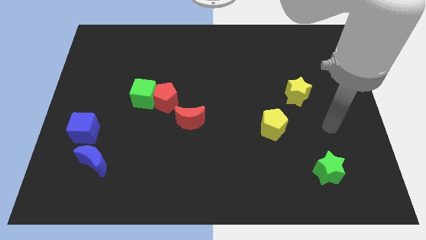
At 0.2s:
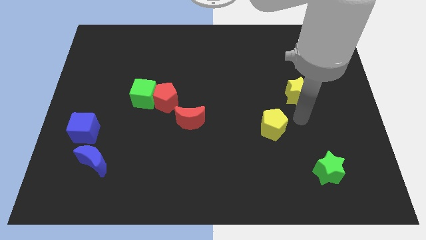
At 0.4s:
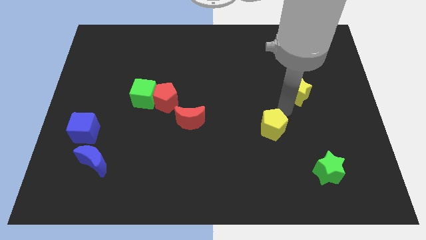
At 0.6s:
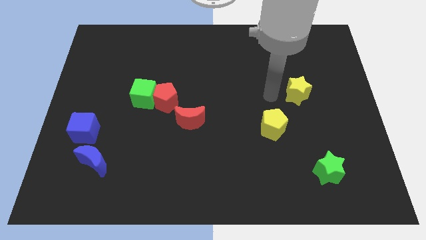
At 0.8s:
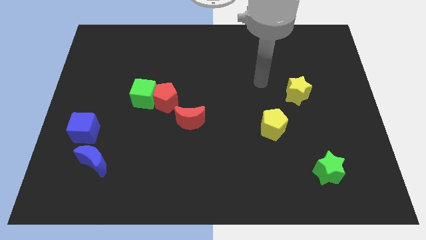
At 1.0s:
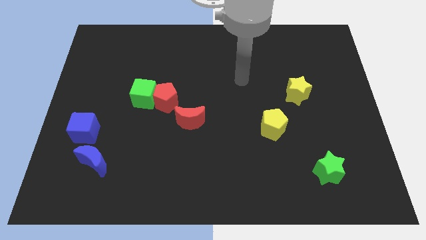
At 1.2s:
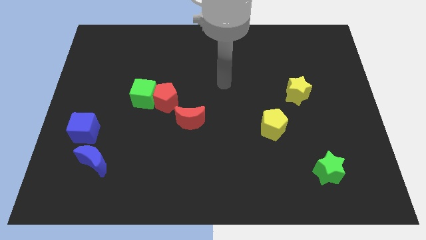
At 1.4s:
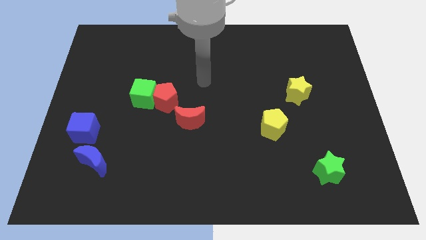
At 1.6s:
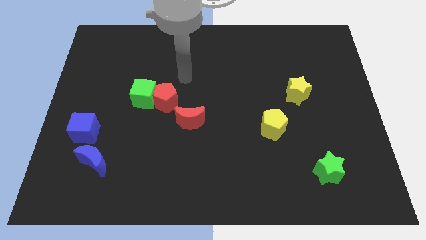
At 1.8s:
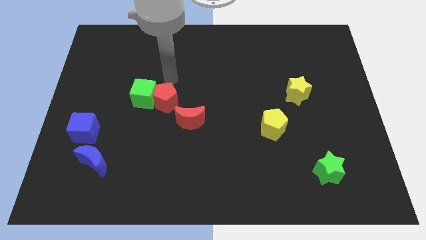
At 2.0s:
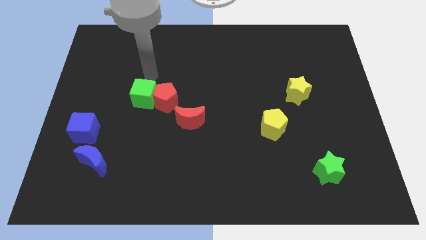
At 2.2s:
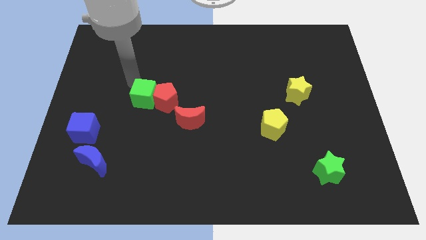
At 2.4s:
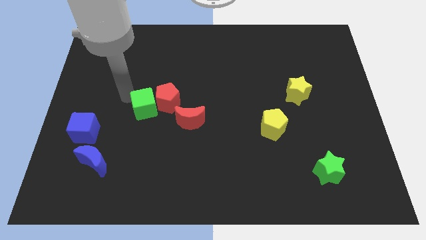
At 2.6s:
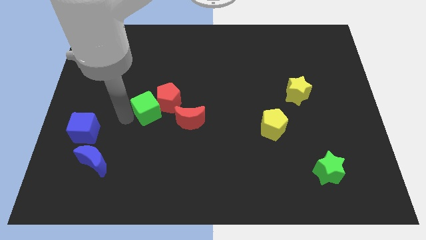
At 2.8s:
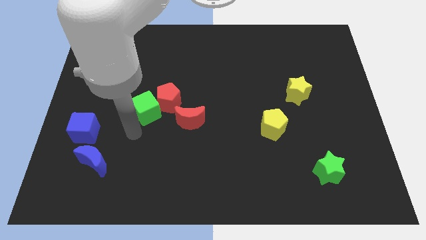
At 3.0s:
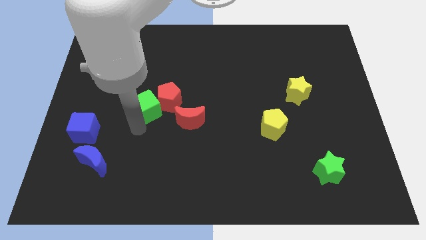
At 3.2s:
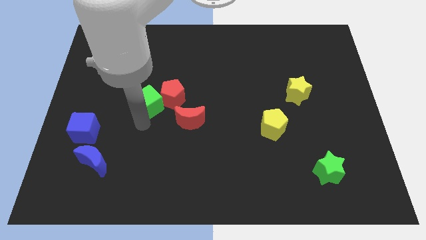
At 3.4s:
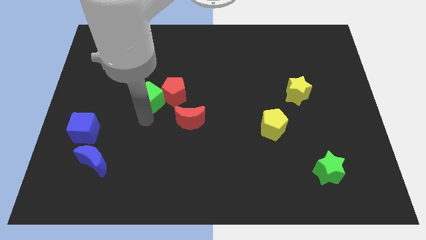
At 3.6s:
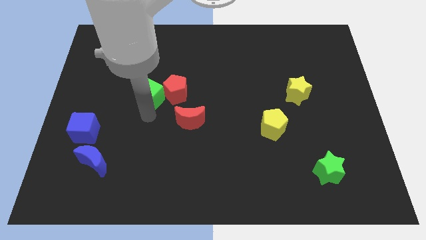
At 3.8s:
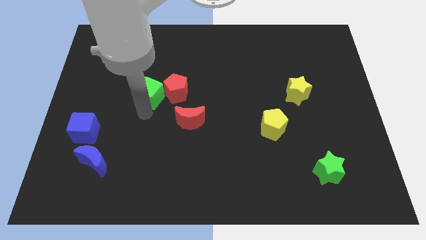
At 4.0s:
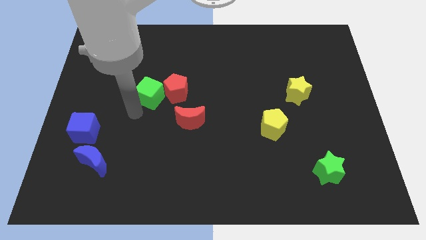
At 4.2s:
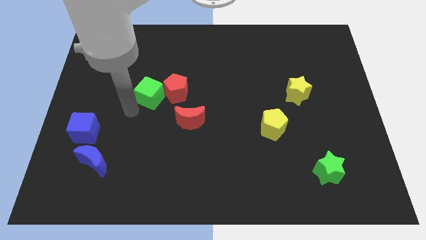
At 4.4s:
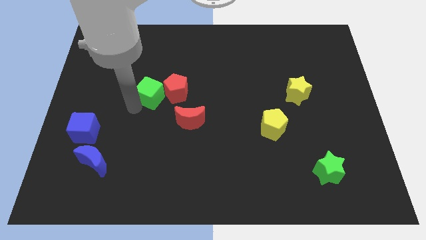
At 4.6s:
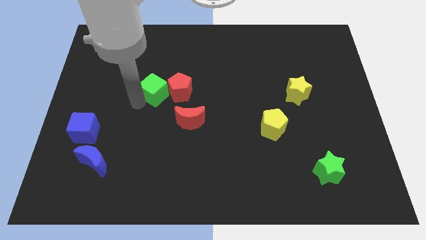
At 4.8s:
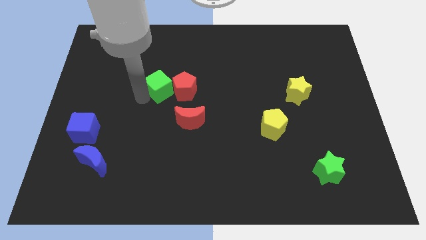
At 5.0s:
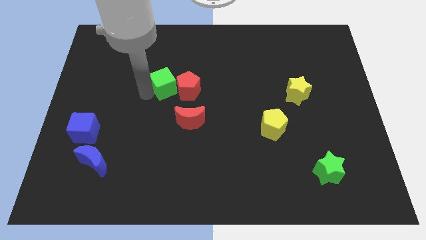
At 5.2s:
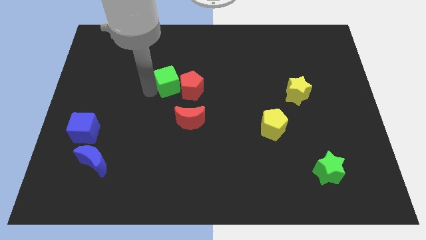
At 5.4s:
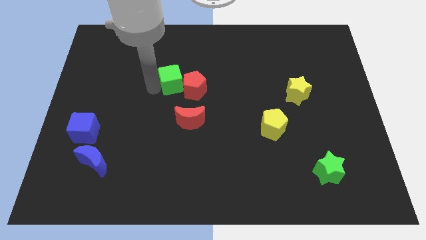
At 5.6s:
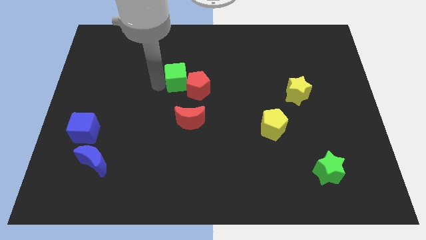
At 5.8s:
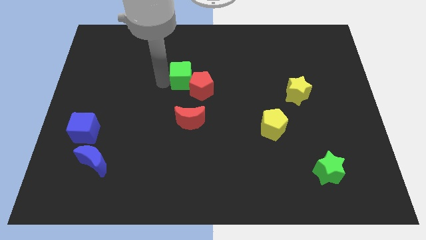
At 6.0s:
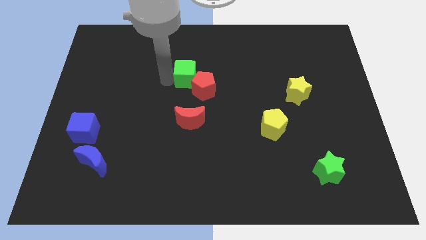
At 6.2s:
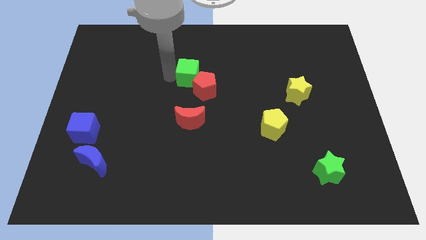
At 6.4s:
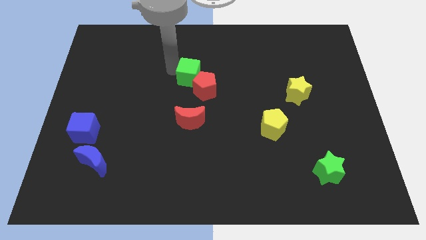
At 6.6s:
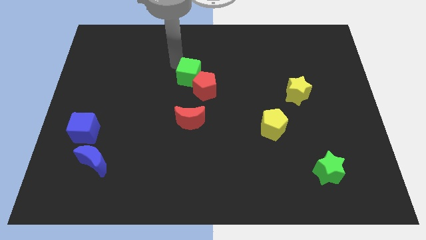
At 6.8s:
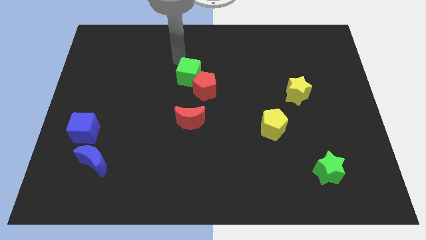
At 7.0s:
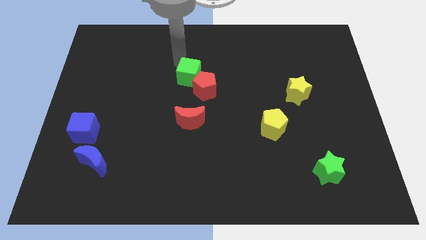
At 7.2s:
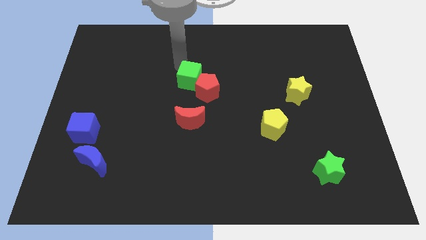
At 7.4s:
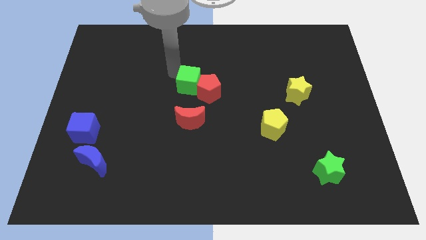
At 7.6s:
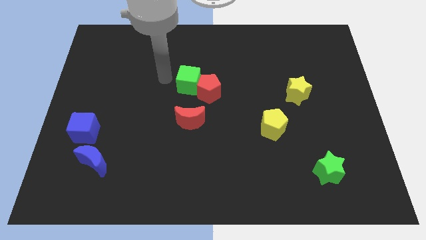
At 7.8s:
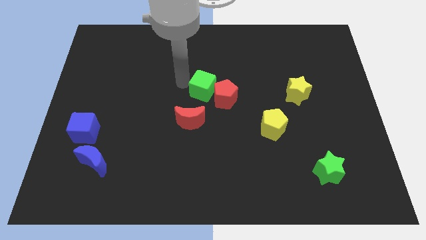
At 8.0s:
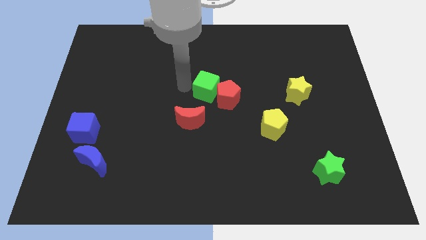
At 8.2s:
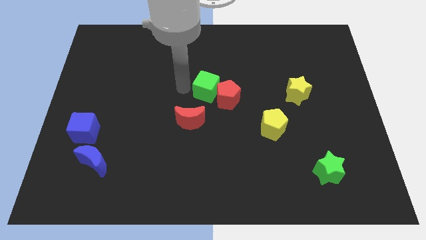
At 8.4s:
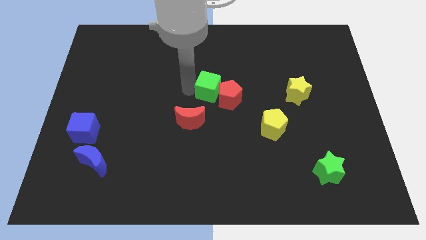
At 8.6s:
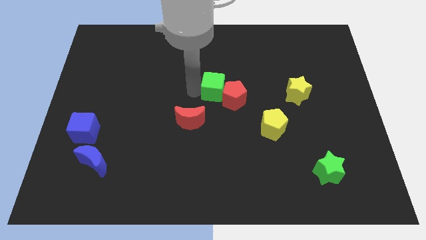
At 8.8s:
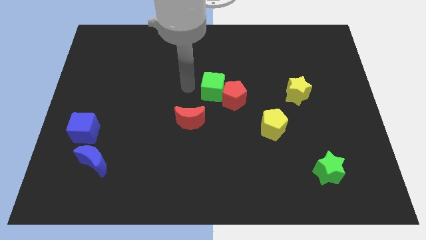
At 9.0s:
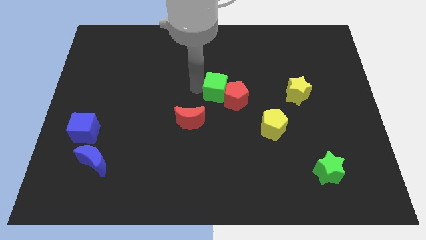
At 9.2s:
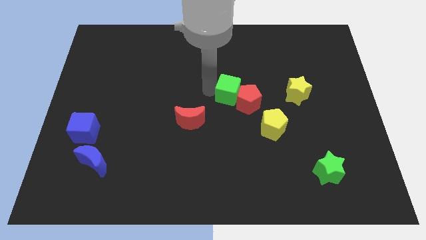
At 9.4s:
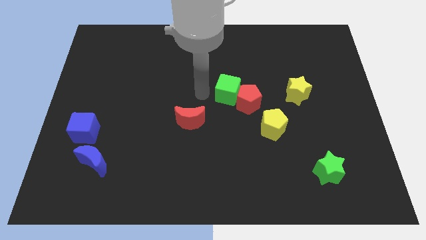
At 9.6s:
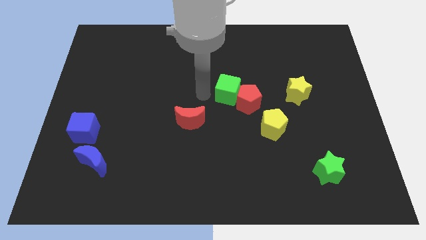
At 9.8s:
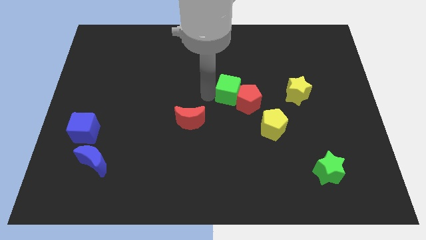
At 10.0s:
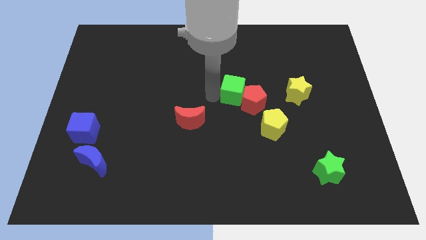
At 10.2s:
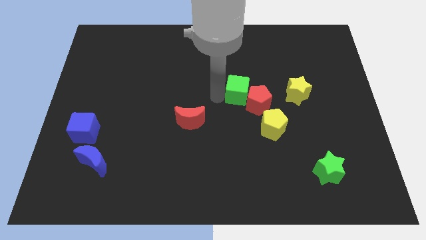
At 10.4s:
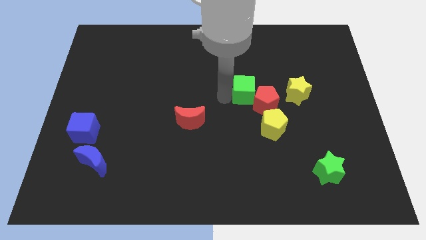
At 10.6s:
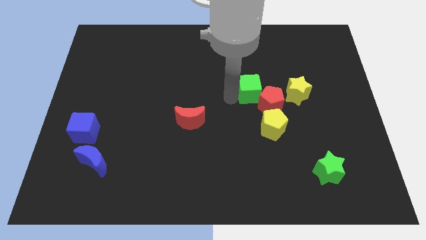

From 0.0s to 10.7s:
push the green cube to the top side of the yellow pentagon

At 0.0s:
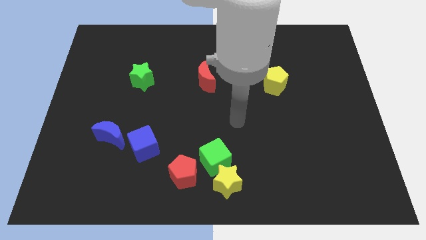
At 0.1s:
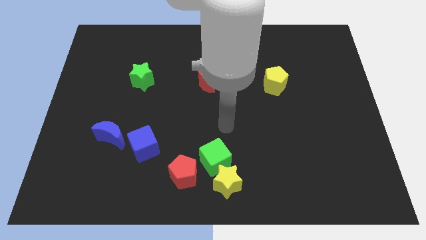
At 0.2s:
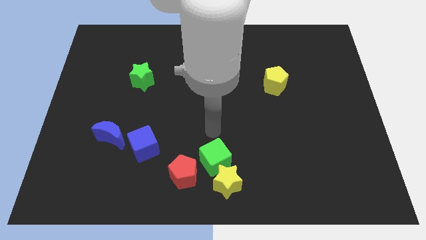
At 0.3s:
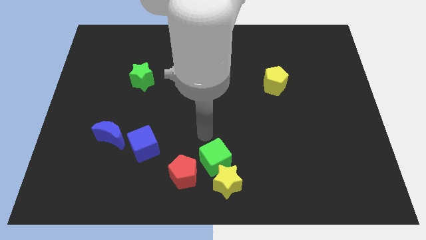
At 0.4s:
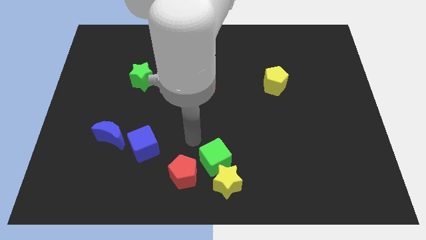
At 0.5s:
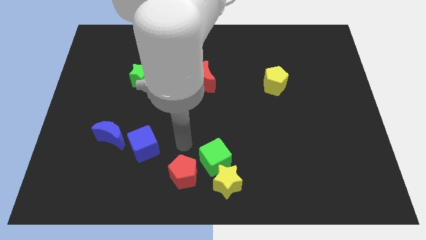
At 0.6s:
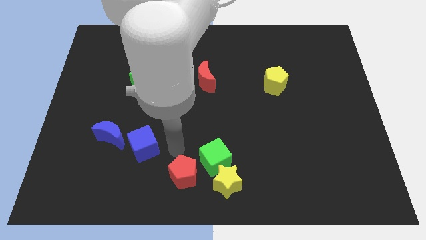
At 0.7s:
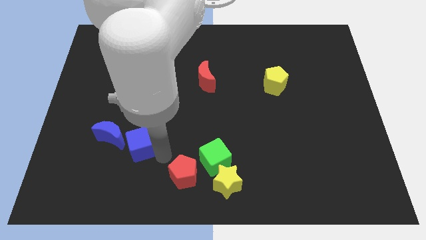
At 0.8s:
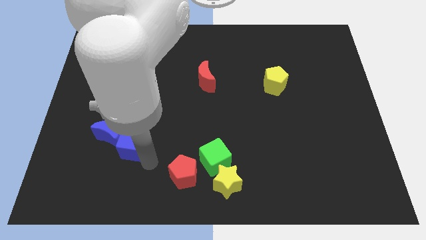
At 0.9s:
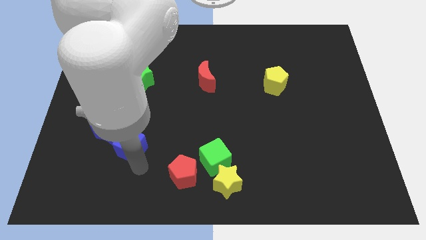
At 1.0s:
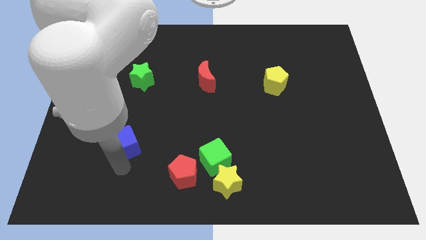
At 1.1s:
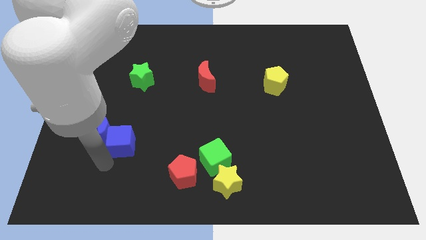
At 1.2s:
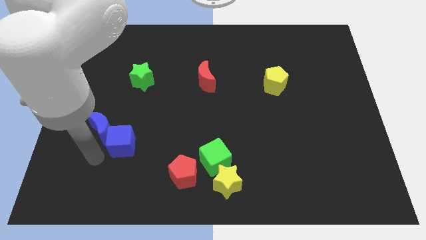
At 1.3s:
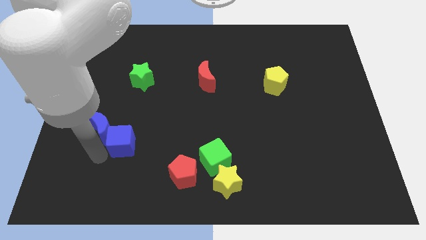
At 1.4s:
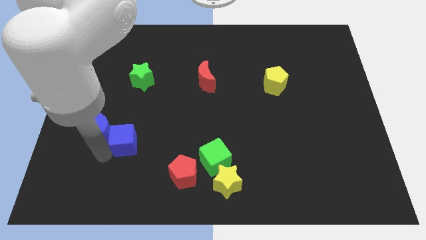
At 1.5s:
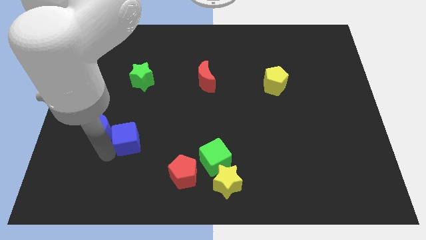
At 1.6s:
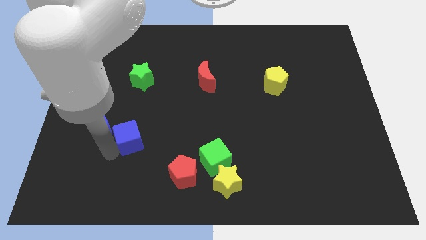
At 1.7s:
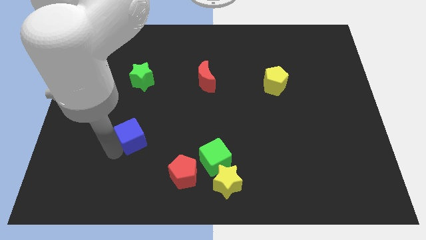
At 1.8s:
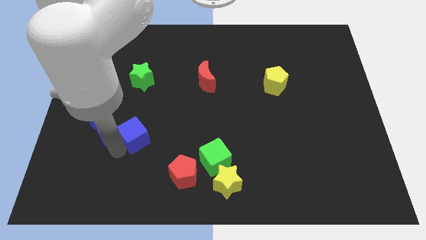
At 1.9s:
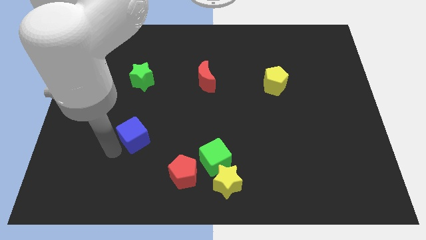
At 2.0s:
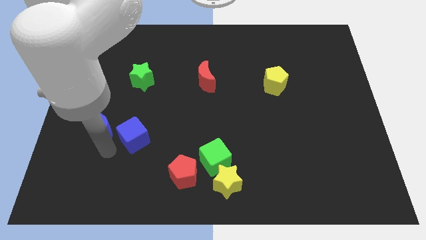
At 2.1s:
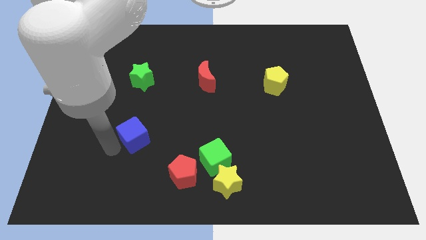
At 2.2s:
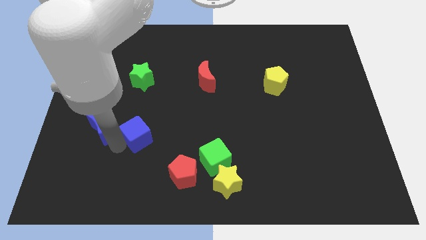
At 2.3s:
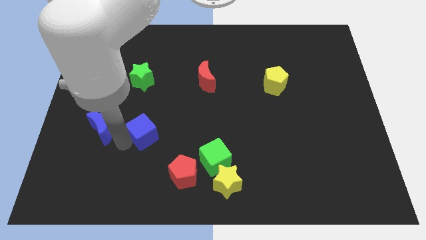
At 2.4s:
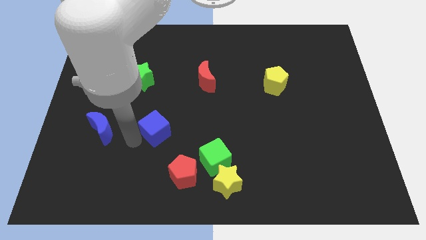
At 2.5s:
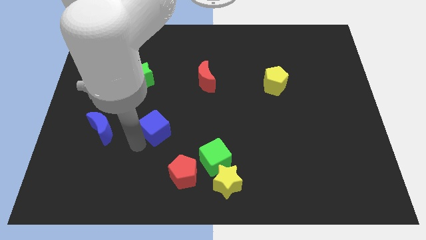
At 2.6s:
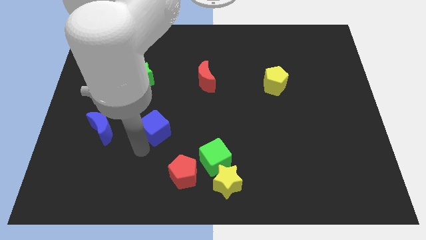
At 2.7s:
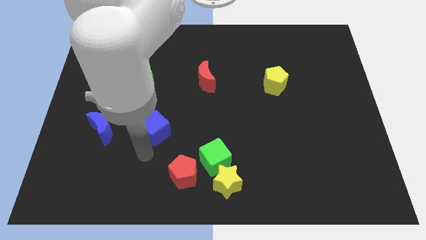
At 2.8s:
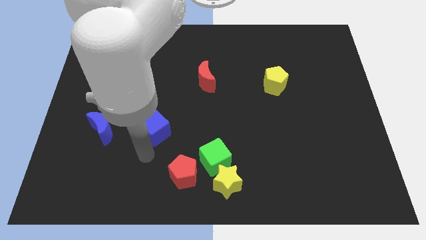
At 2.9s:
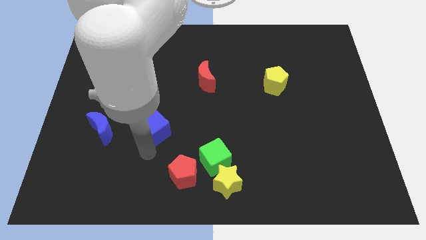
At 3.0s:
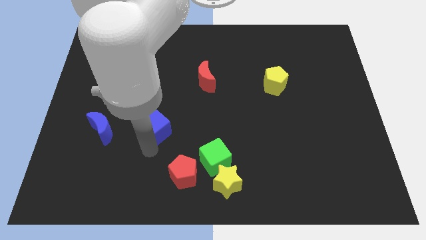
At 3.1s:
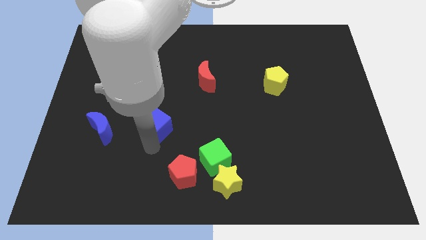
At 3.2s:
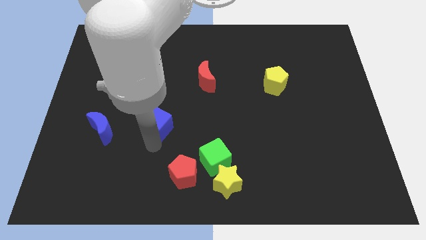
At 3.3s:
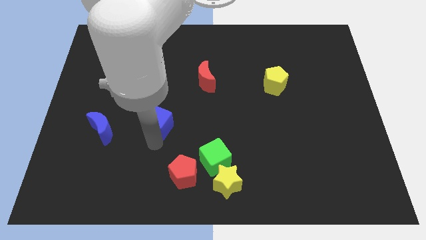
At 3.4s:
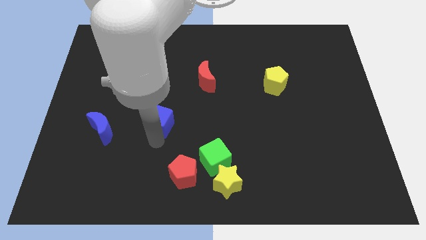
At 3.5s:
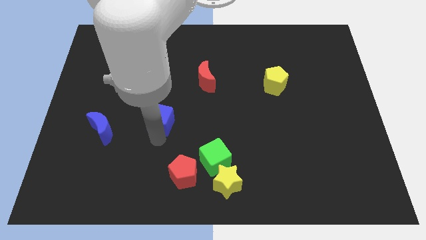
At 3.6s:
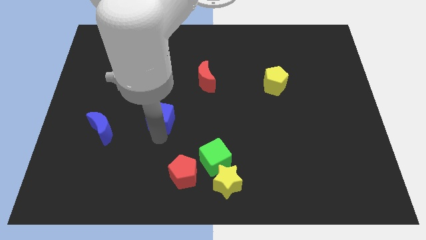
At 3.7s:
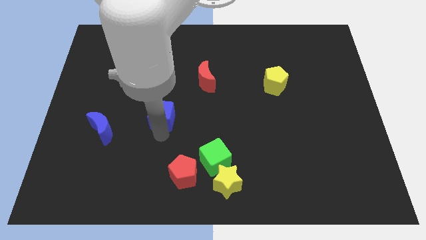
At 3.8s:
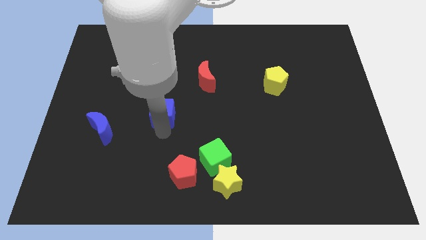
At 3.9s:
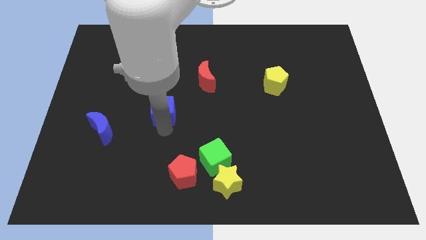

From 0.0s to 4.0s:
put the blue cube to the bottom right side of the green star
